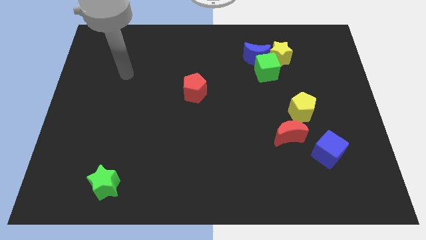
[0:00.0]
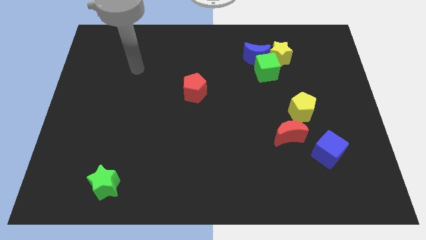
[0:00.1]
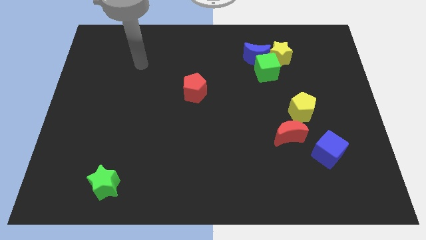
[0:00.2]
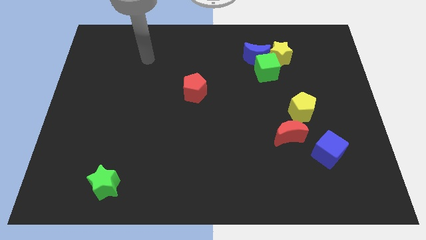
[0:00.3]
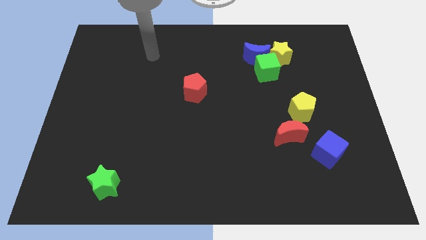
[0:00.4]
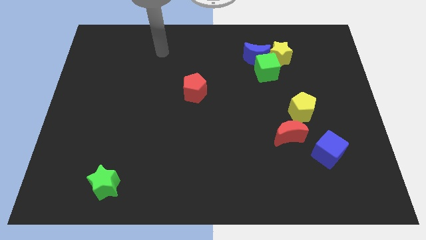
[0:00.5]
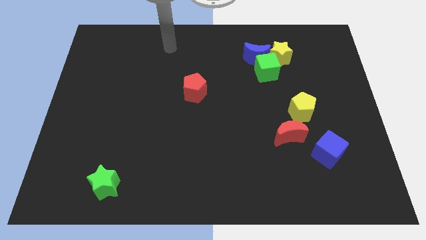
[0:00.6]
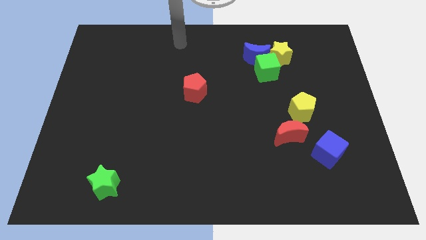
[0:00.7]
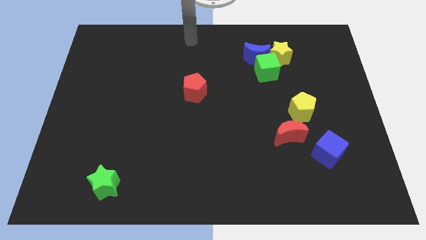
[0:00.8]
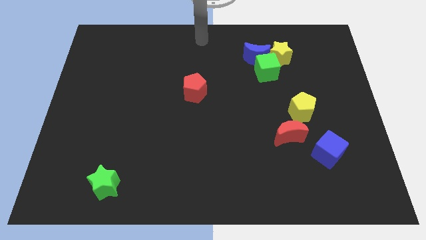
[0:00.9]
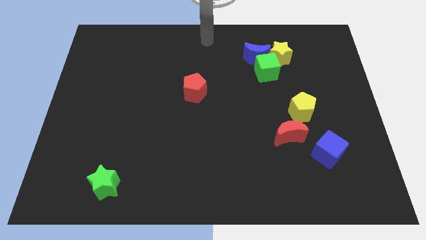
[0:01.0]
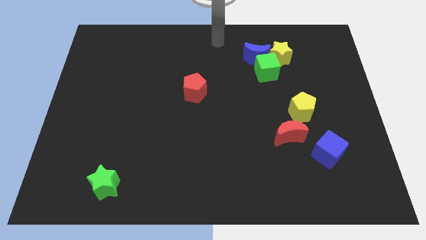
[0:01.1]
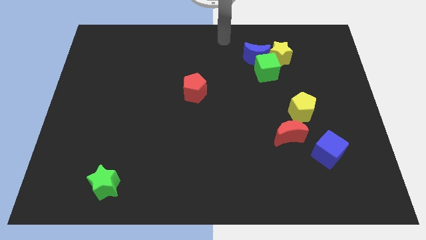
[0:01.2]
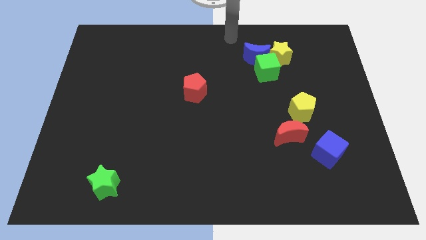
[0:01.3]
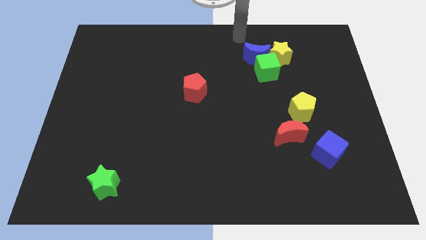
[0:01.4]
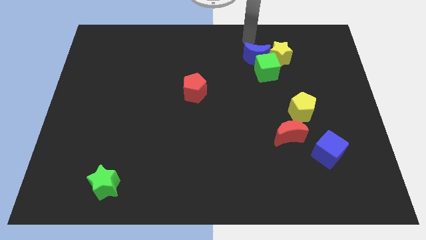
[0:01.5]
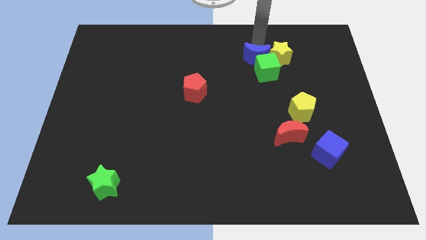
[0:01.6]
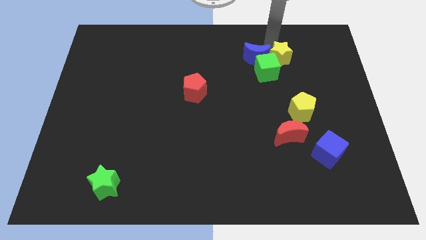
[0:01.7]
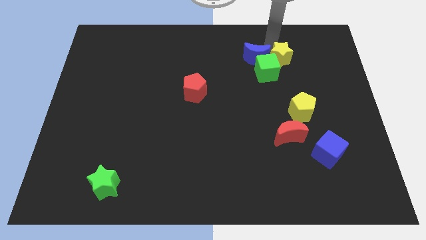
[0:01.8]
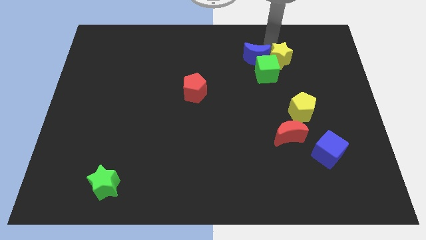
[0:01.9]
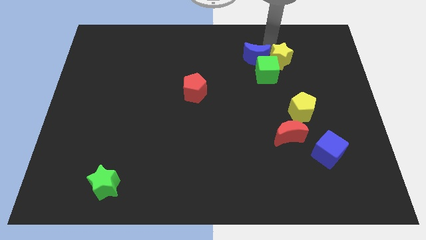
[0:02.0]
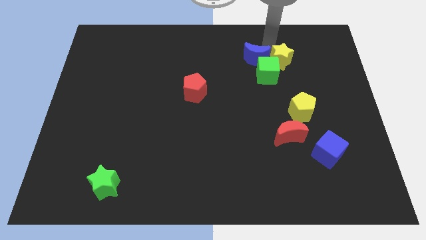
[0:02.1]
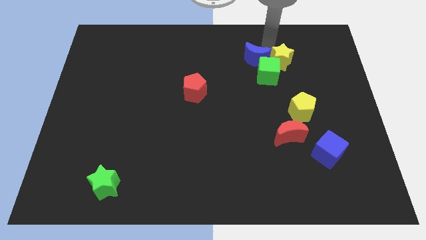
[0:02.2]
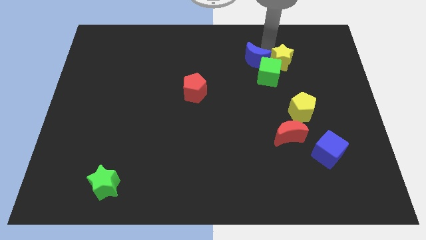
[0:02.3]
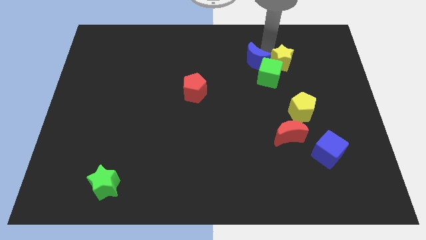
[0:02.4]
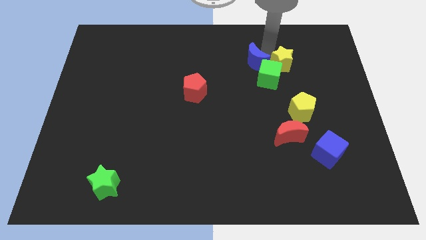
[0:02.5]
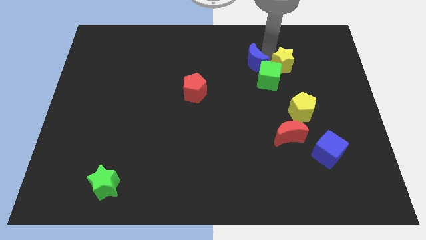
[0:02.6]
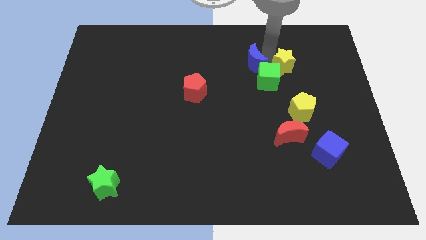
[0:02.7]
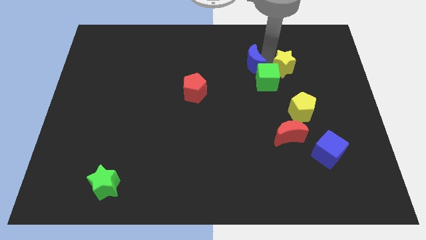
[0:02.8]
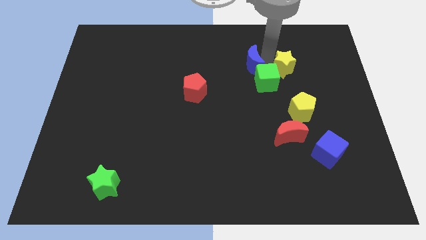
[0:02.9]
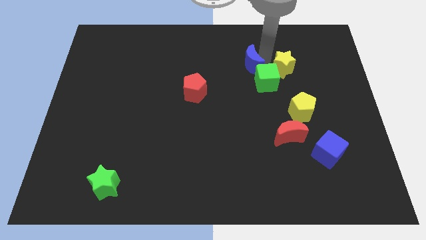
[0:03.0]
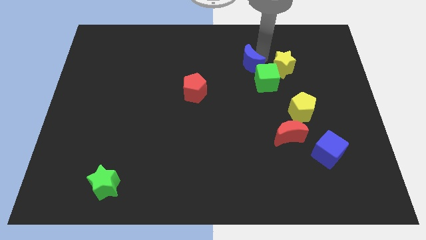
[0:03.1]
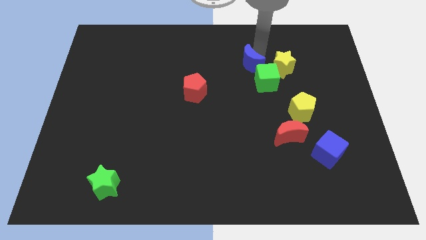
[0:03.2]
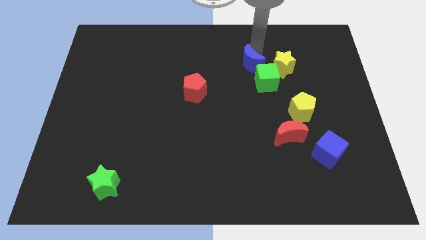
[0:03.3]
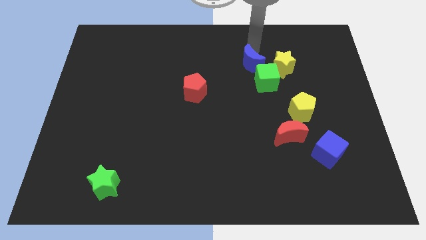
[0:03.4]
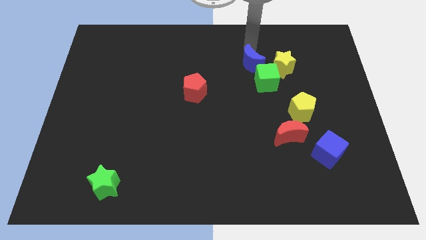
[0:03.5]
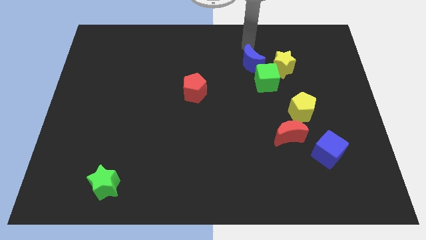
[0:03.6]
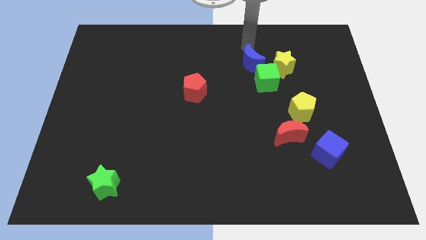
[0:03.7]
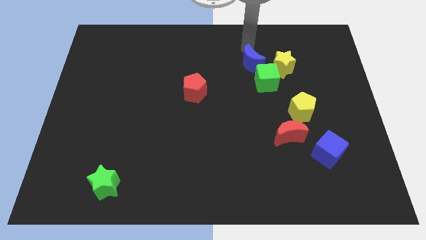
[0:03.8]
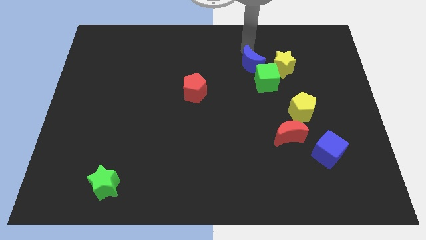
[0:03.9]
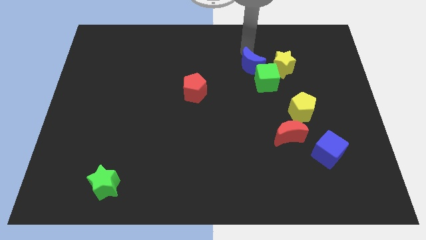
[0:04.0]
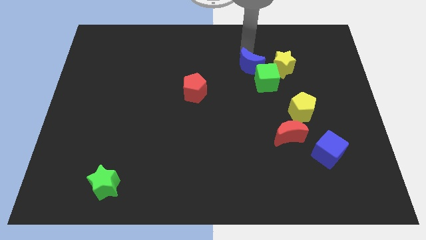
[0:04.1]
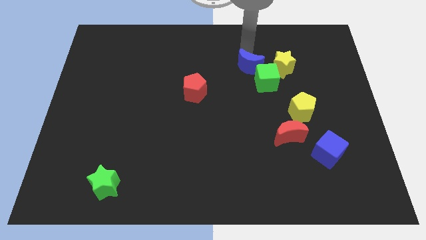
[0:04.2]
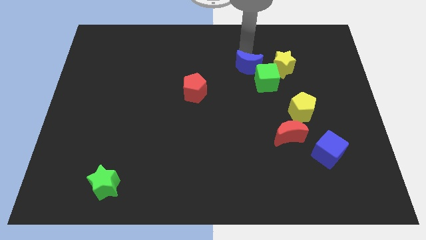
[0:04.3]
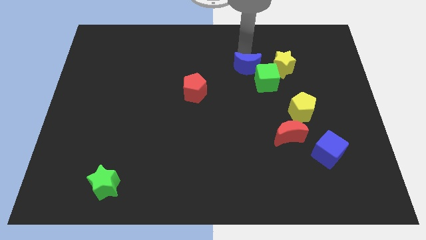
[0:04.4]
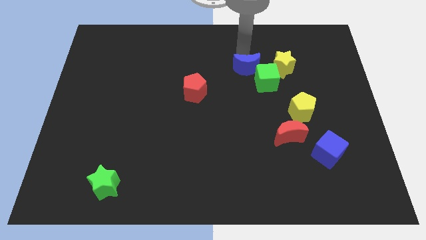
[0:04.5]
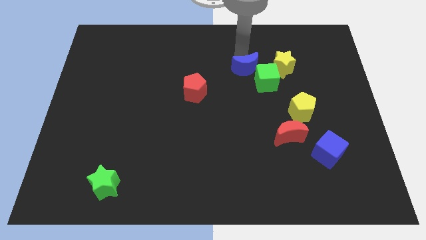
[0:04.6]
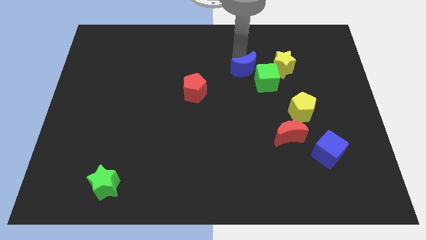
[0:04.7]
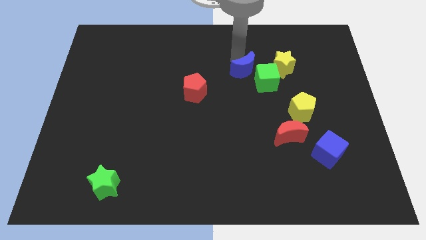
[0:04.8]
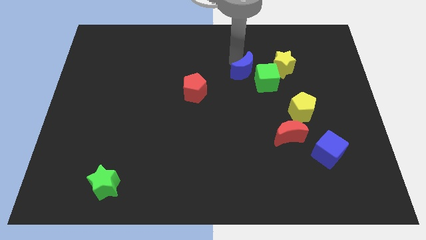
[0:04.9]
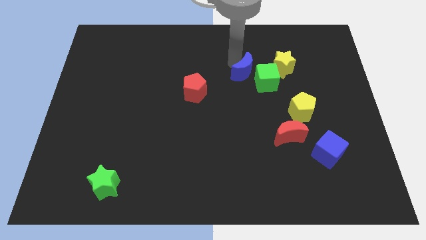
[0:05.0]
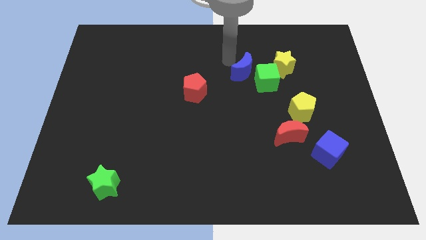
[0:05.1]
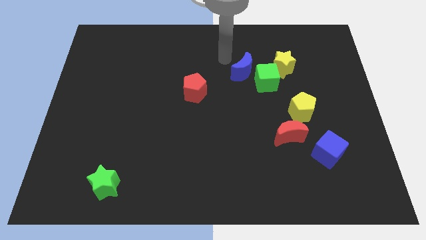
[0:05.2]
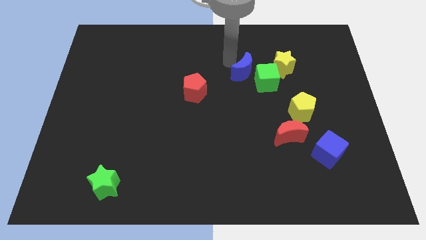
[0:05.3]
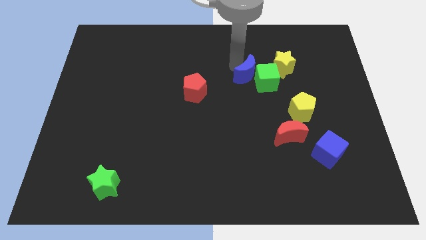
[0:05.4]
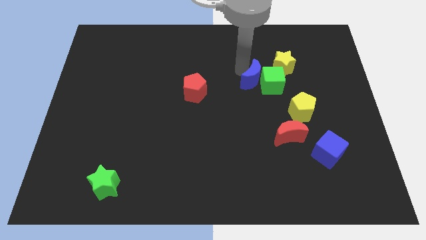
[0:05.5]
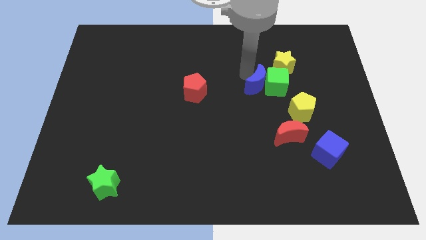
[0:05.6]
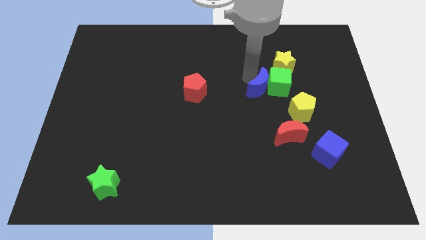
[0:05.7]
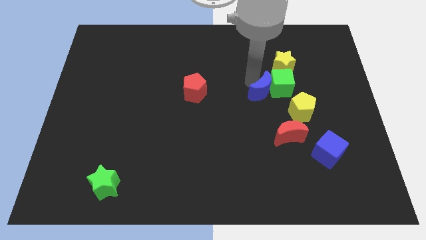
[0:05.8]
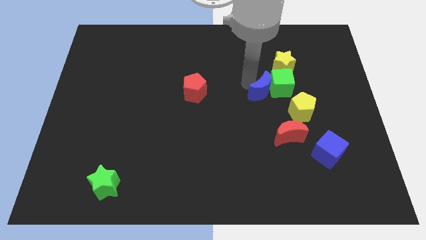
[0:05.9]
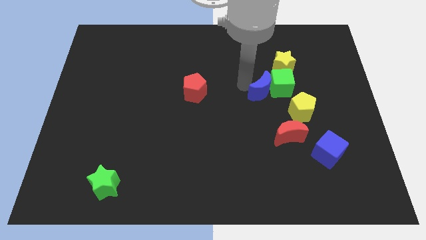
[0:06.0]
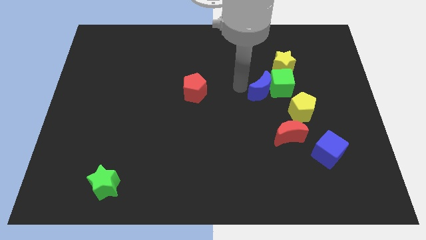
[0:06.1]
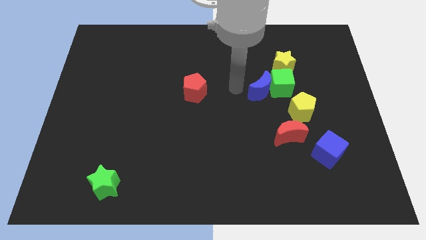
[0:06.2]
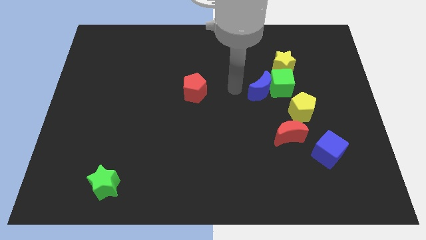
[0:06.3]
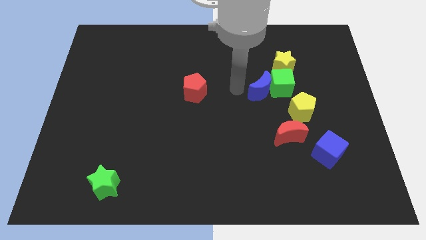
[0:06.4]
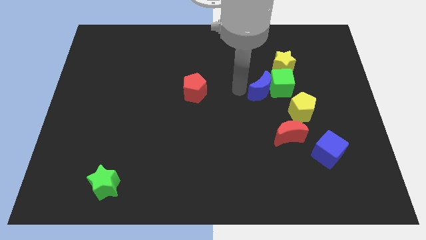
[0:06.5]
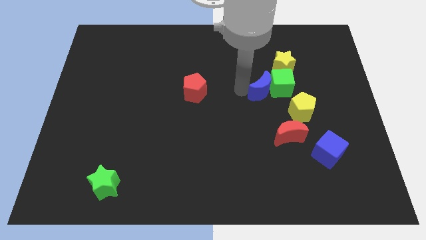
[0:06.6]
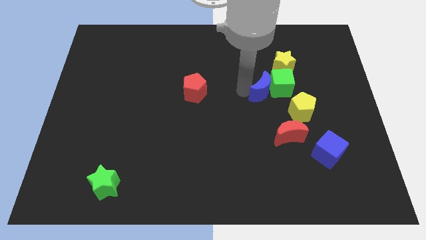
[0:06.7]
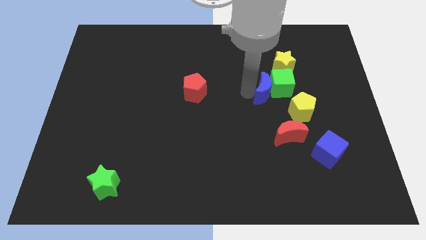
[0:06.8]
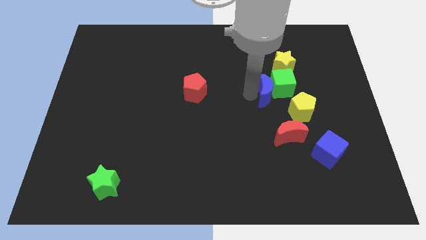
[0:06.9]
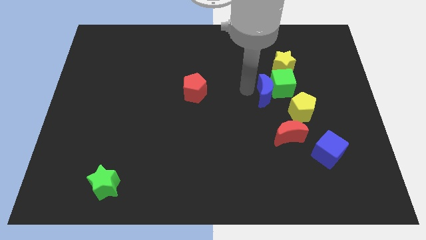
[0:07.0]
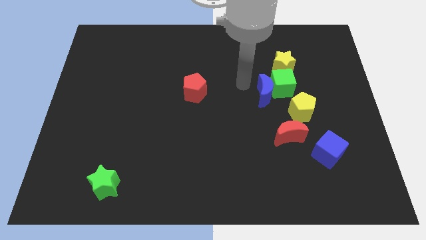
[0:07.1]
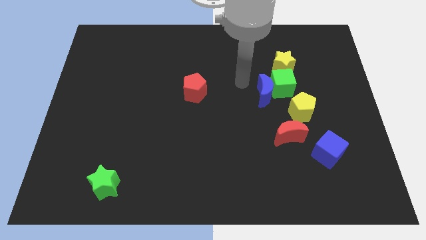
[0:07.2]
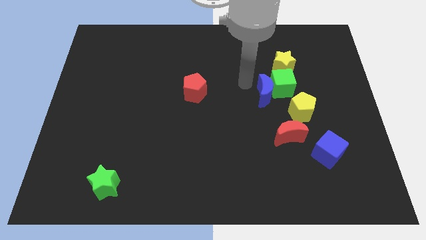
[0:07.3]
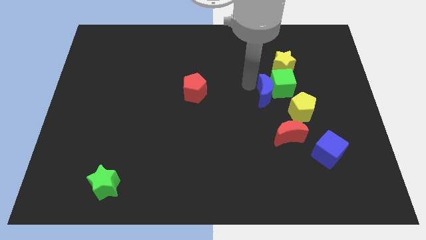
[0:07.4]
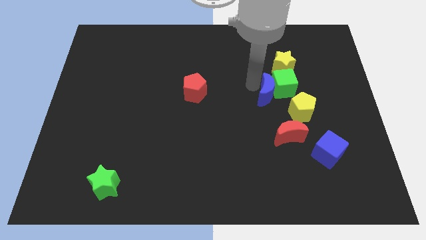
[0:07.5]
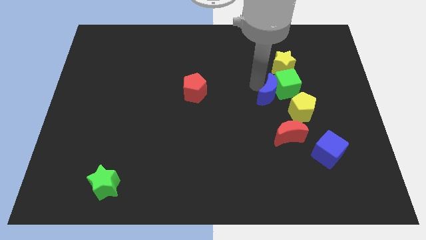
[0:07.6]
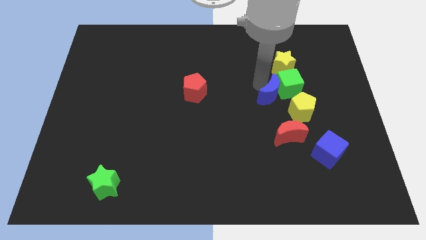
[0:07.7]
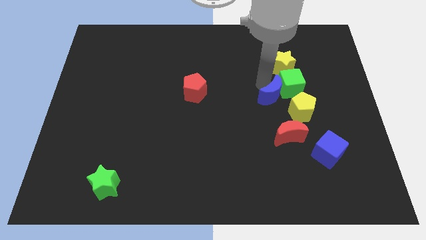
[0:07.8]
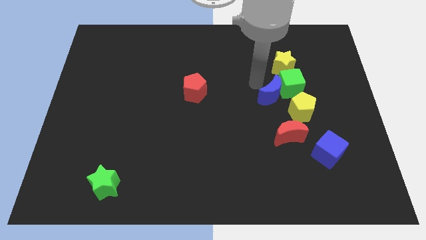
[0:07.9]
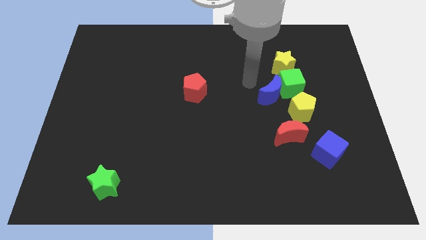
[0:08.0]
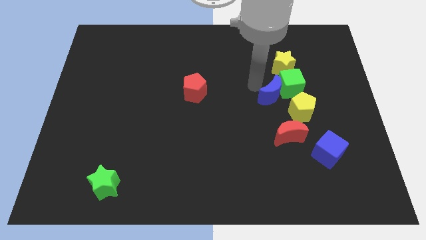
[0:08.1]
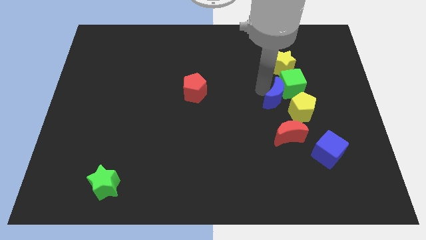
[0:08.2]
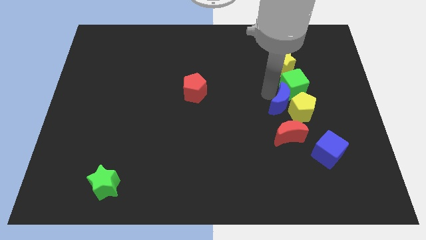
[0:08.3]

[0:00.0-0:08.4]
put the blue moon next to the yellow pentagon
